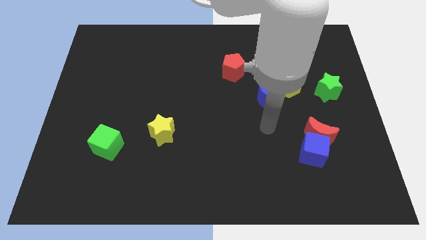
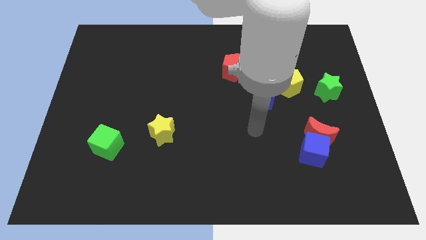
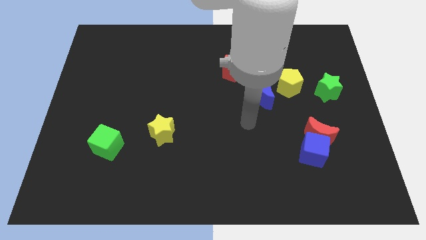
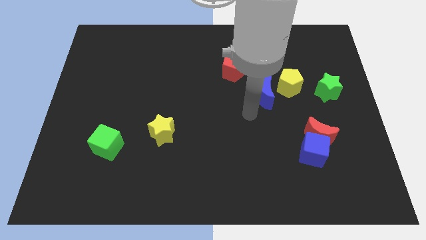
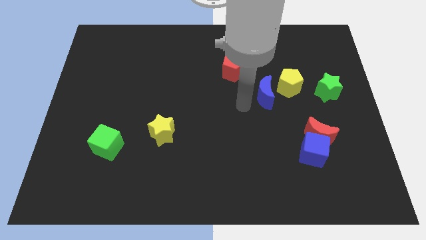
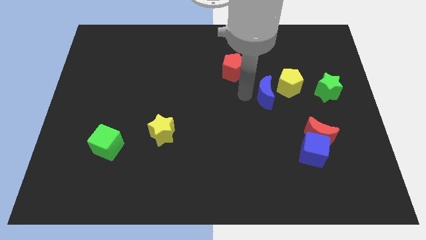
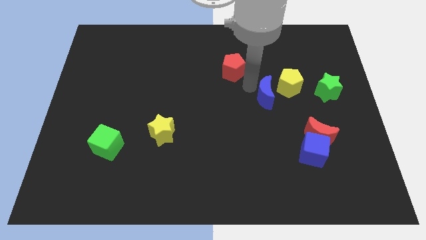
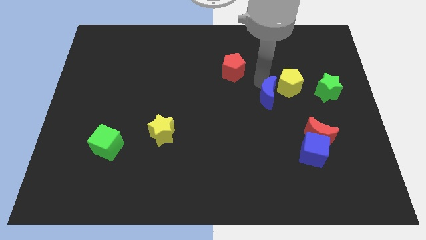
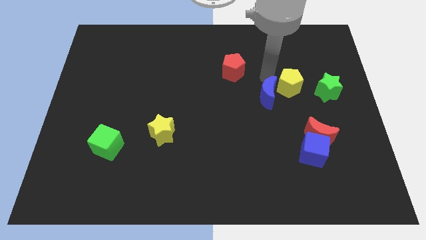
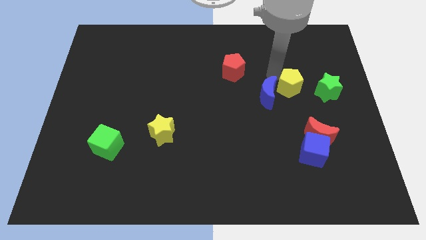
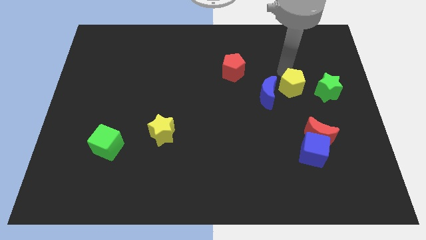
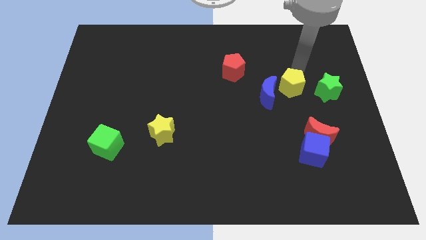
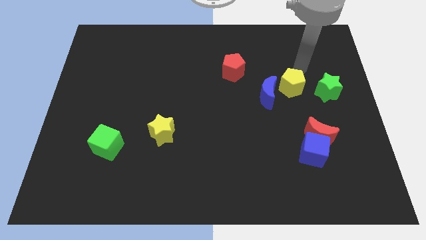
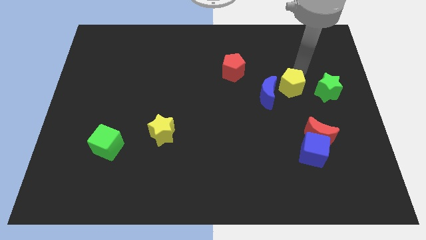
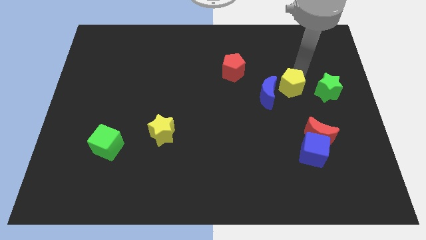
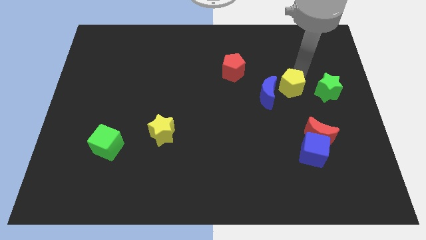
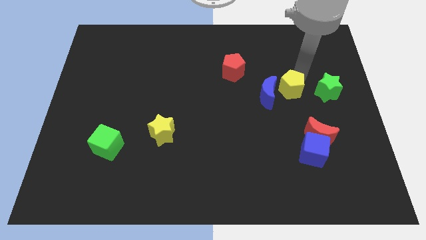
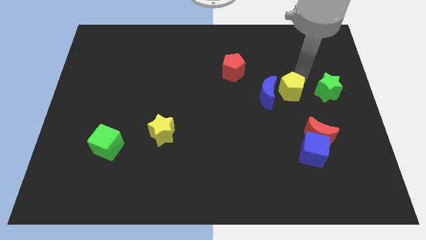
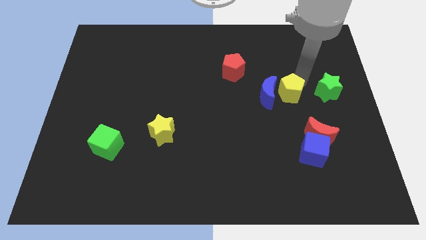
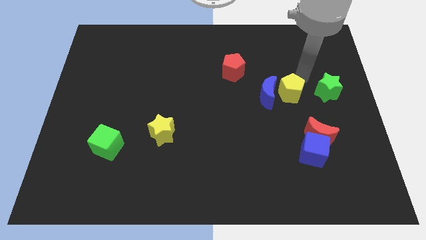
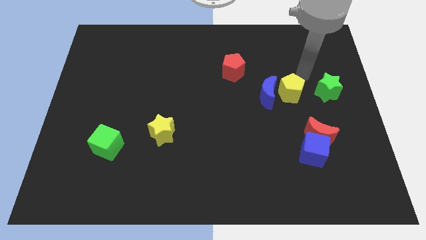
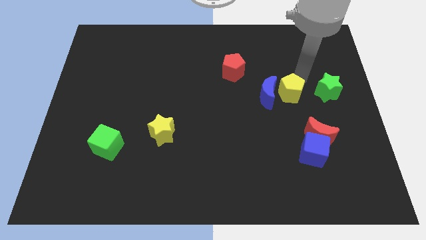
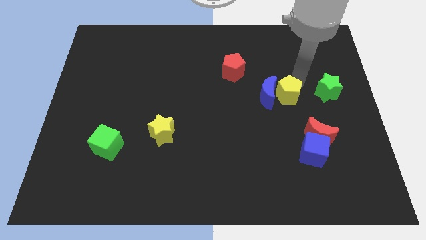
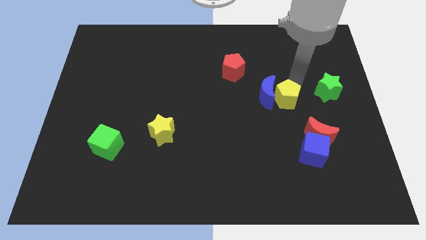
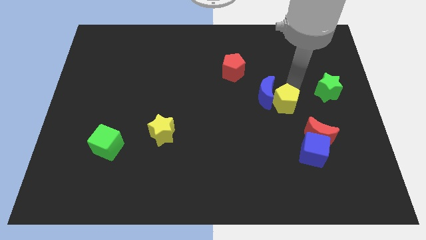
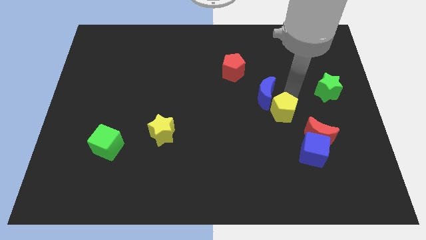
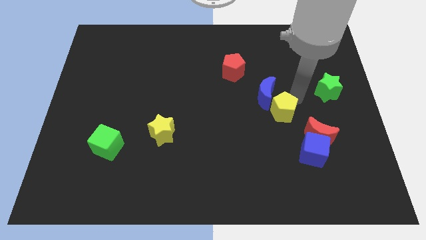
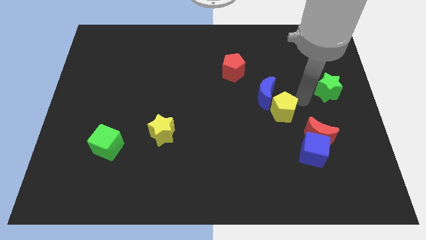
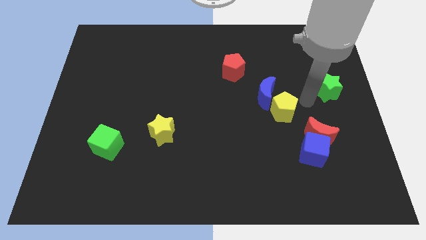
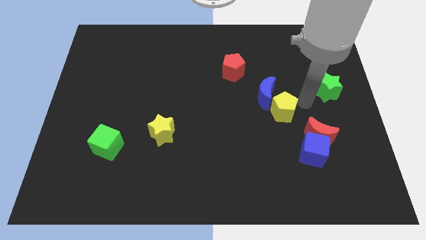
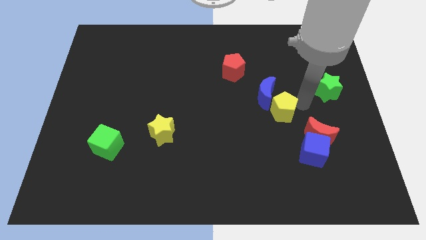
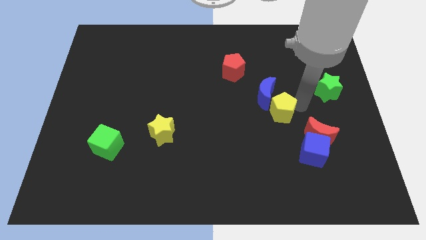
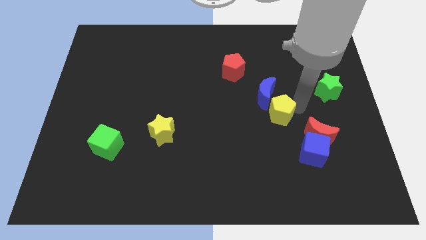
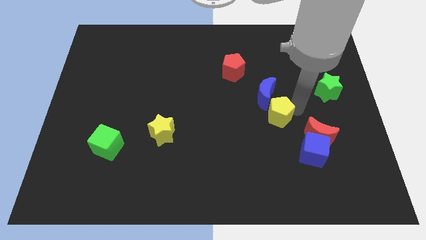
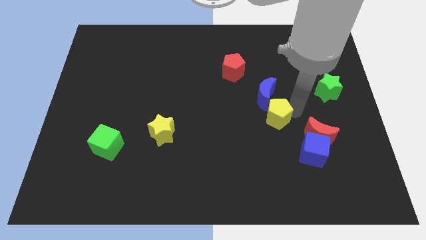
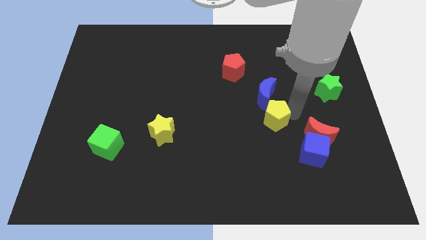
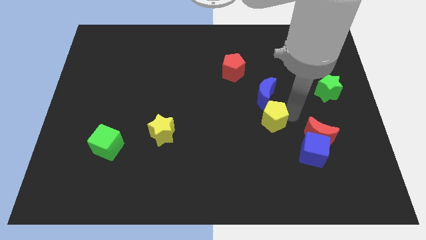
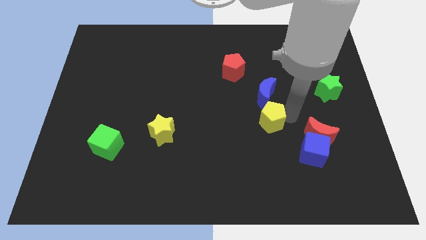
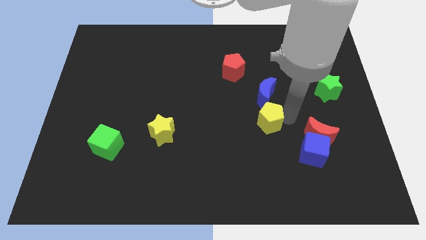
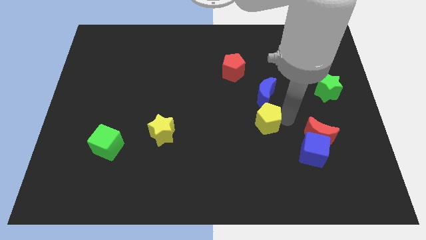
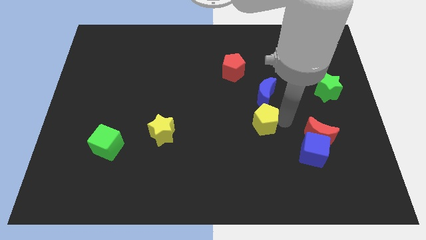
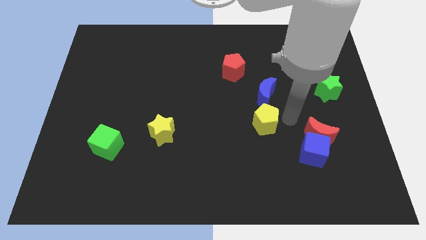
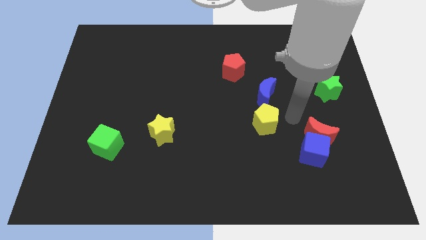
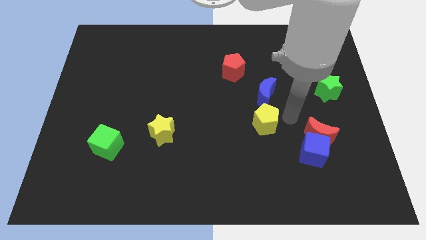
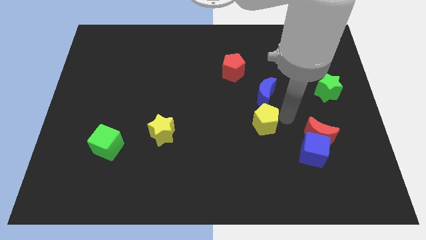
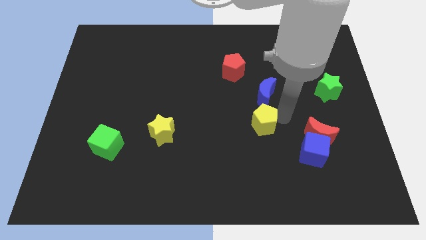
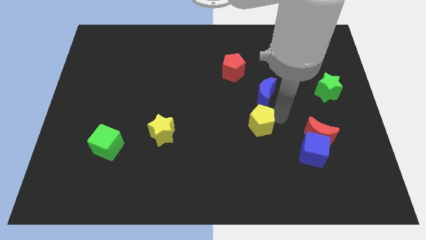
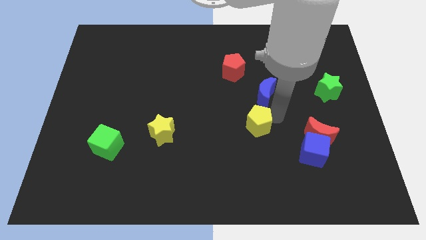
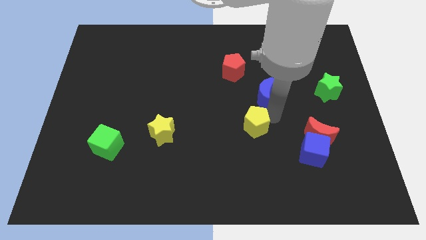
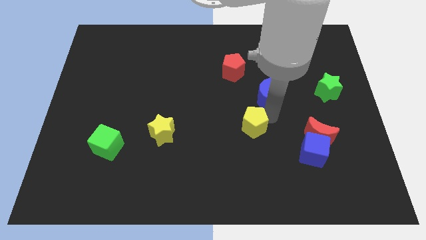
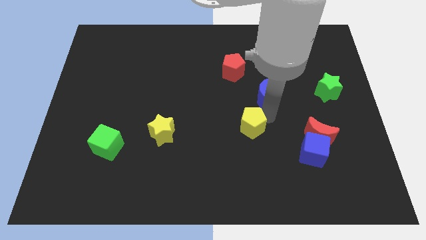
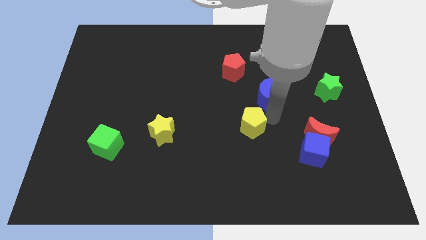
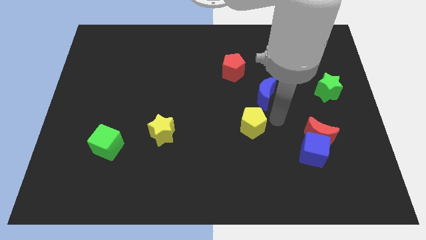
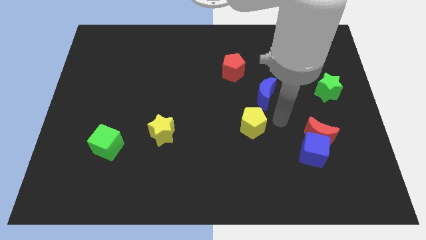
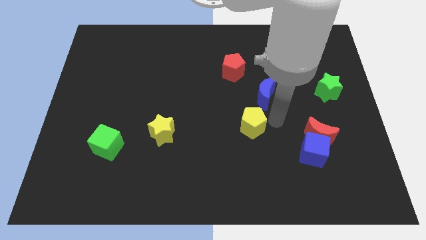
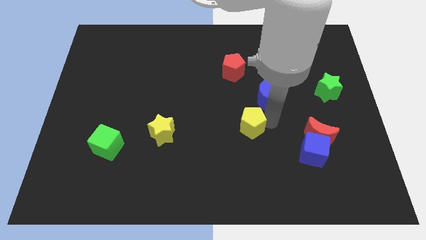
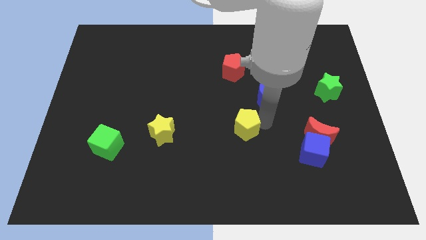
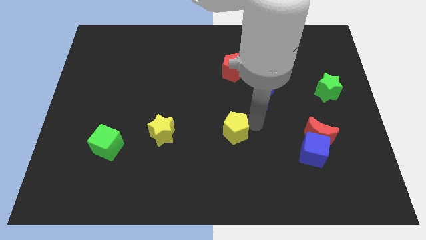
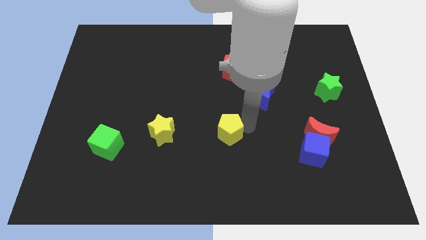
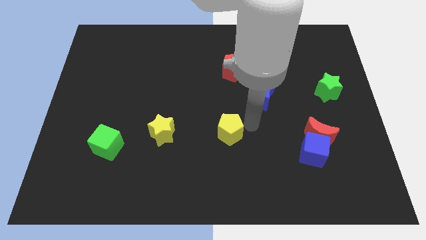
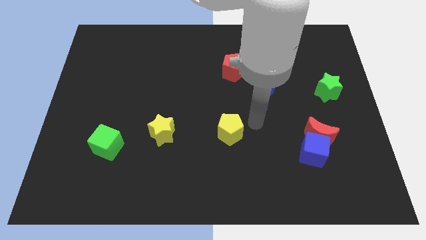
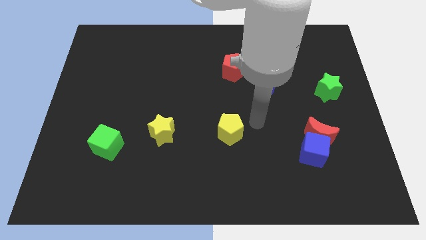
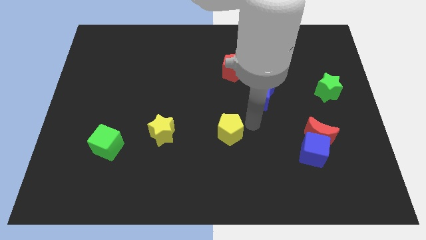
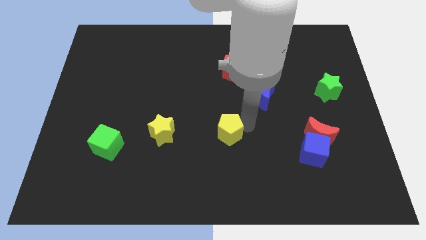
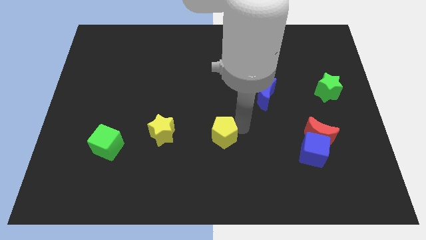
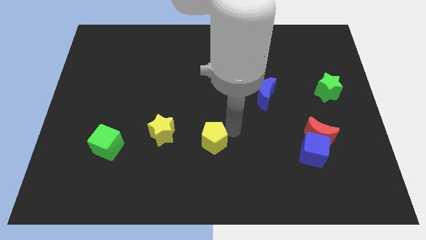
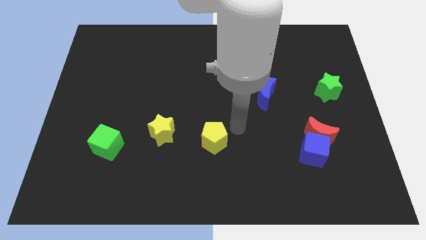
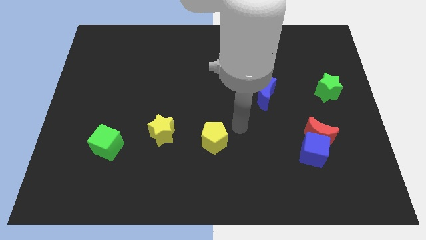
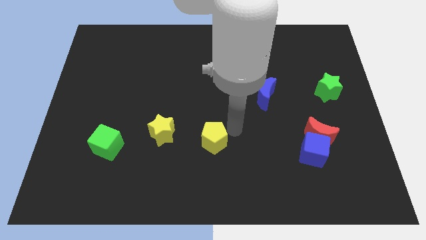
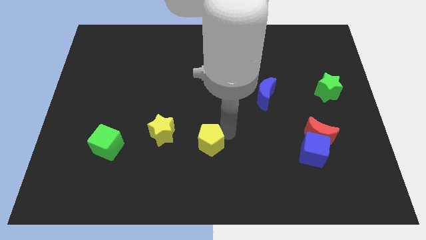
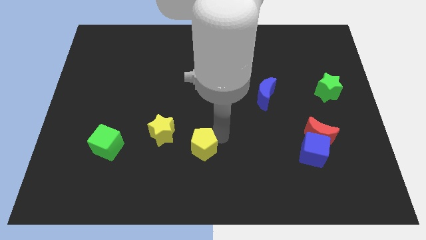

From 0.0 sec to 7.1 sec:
move the yellow pentagon to the bottom right of the yellow star
